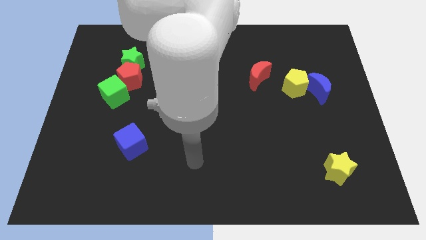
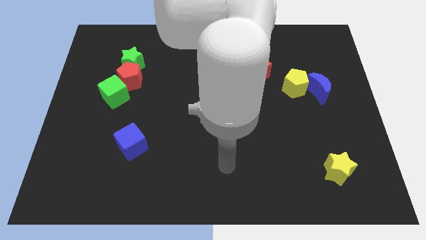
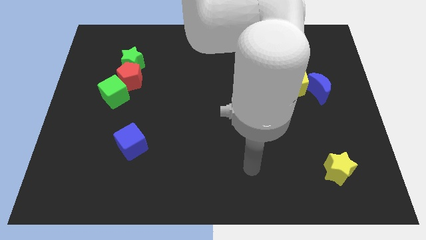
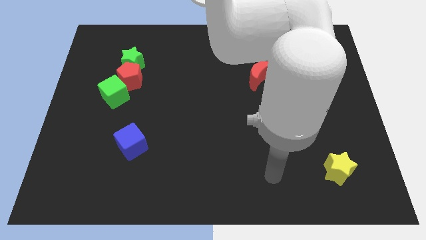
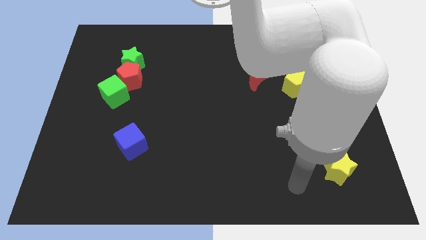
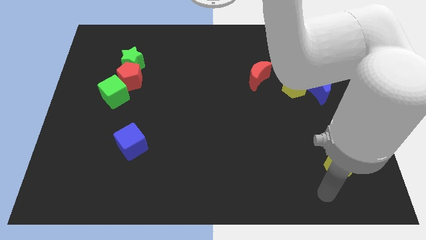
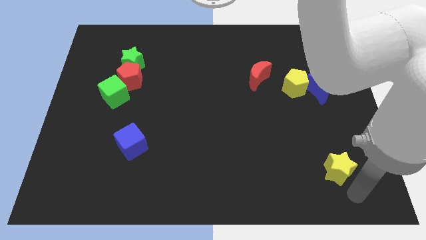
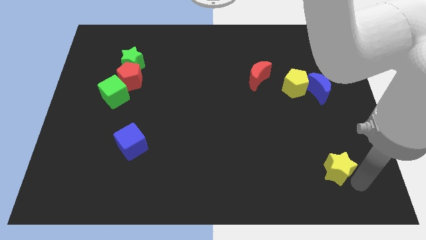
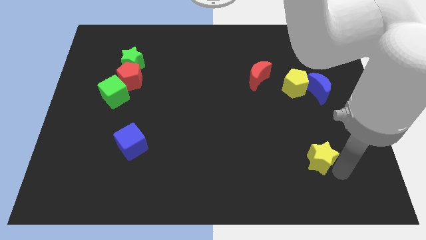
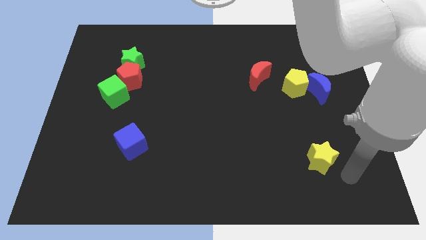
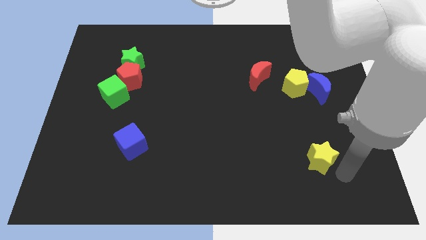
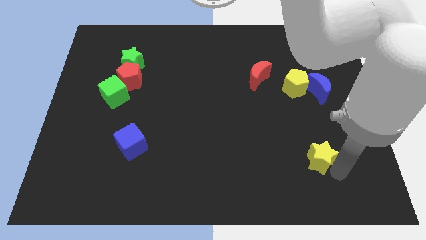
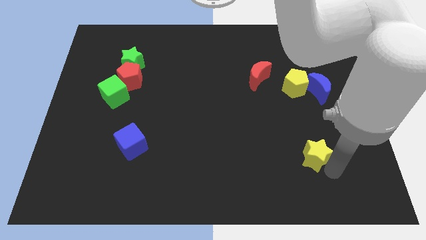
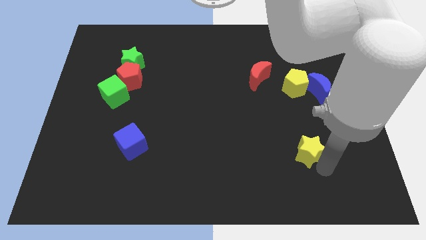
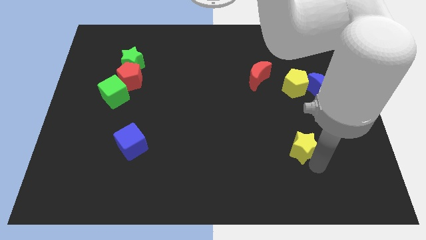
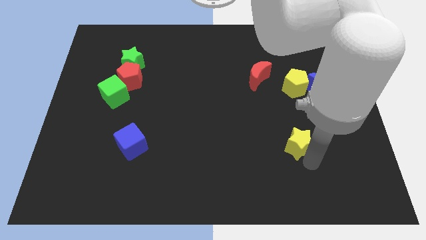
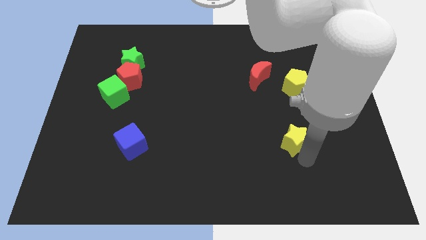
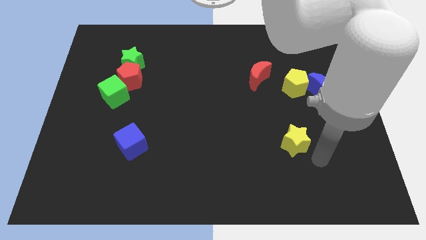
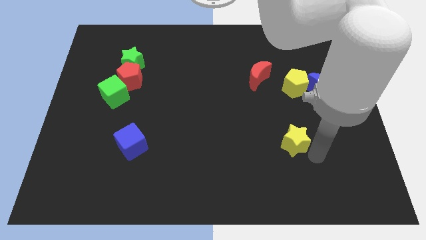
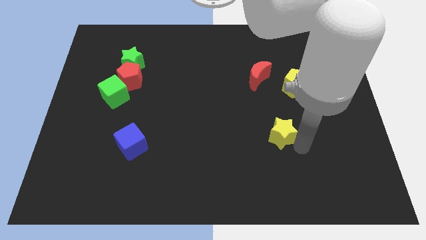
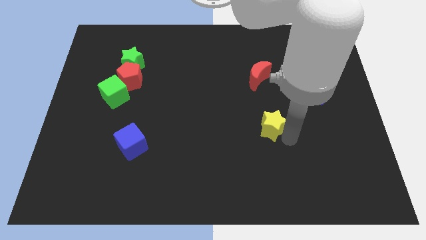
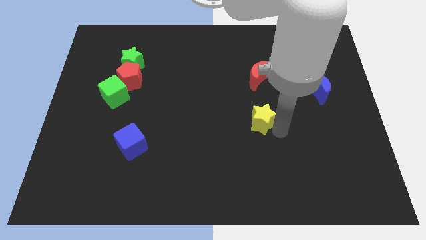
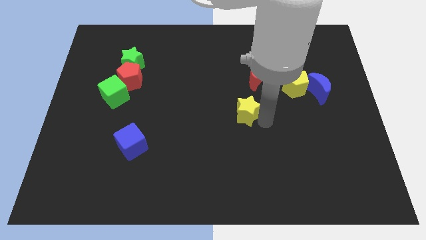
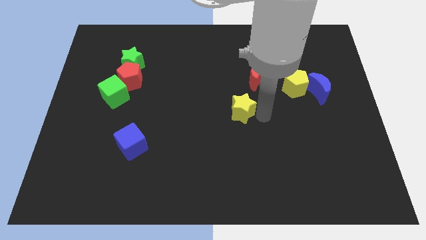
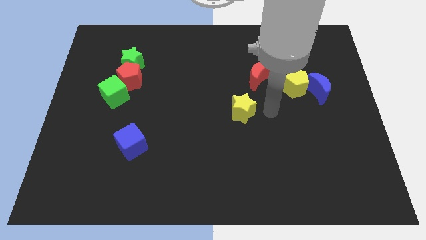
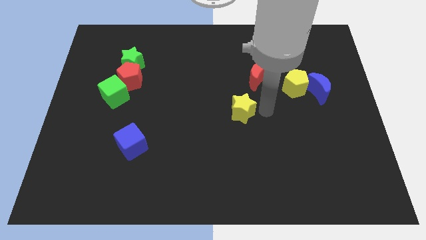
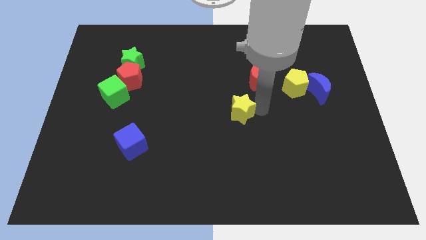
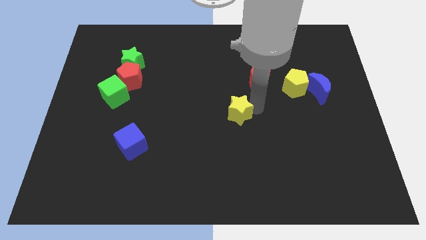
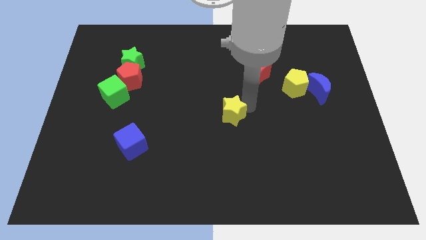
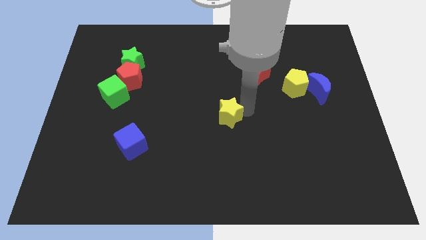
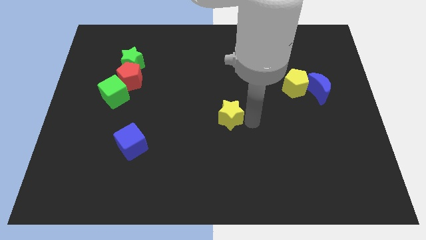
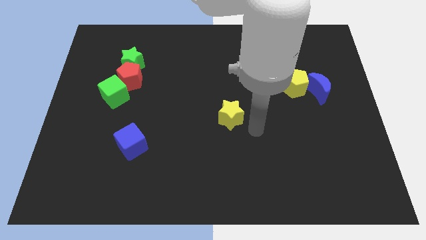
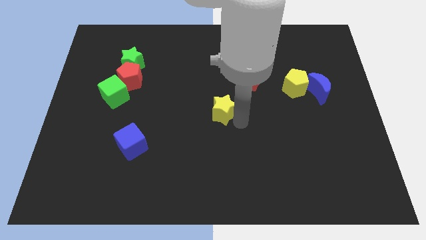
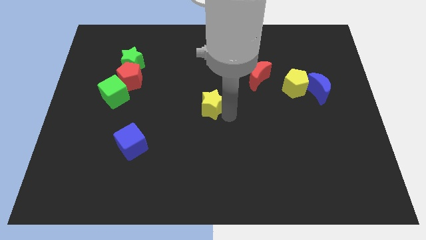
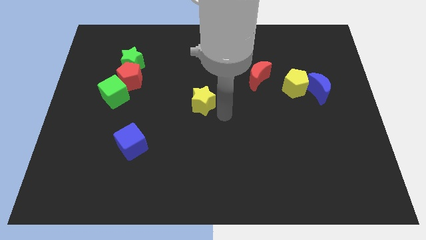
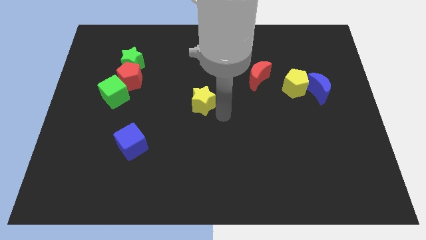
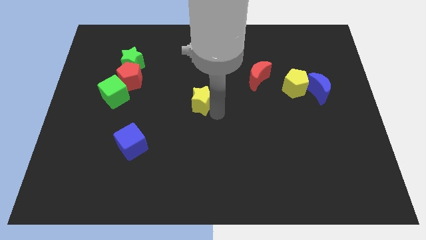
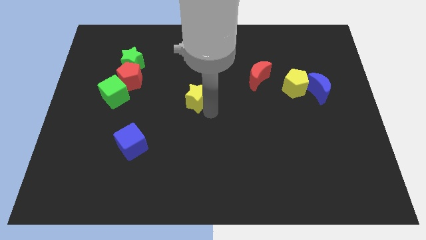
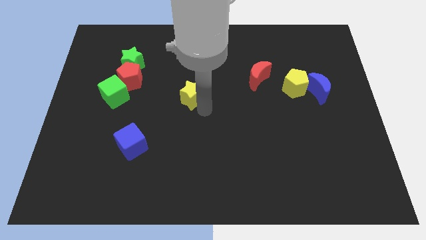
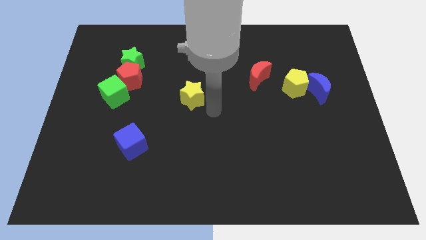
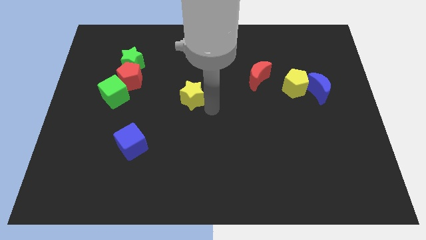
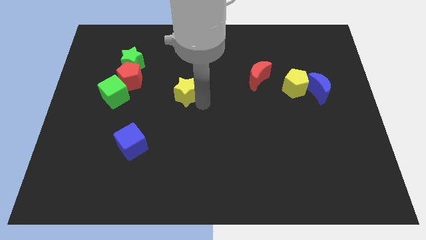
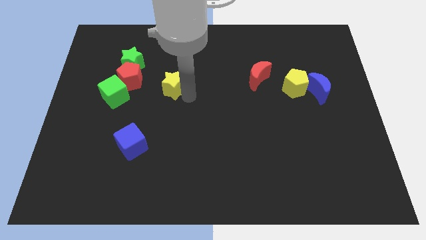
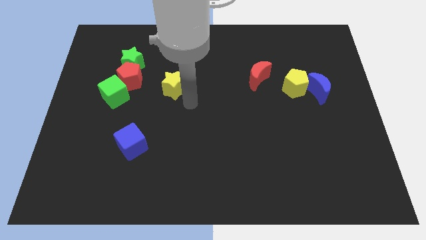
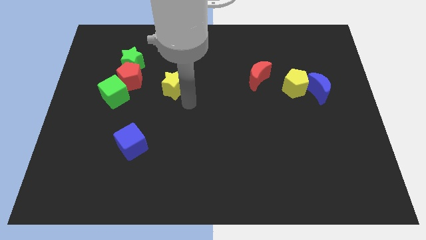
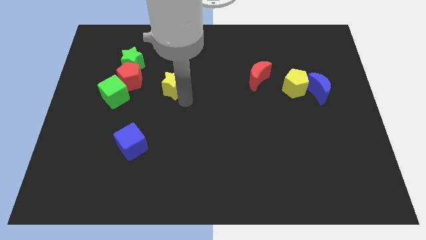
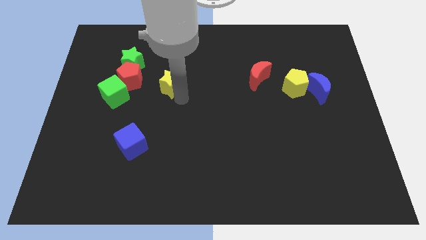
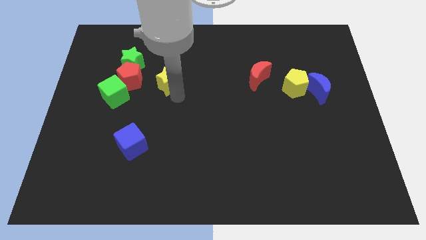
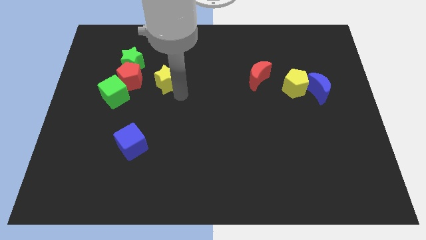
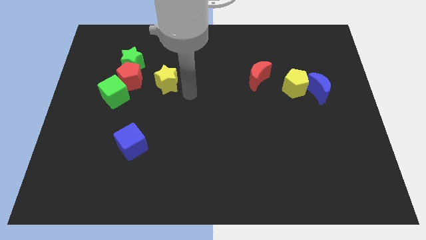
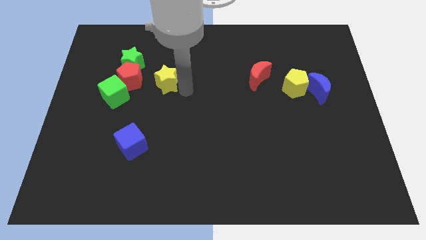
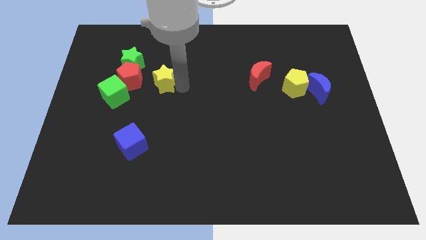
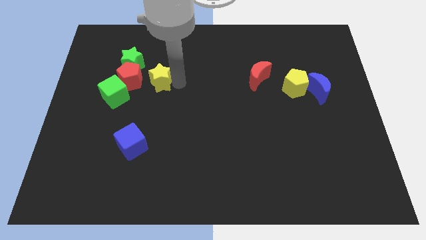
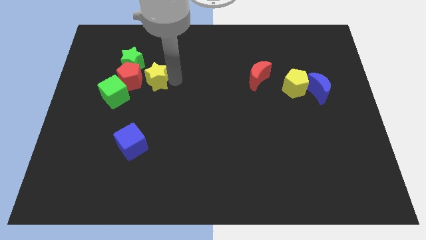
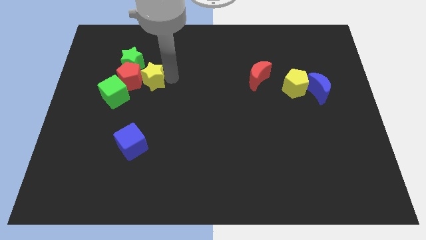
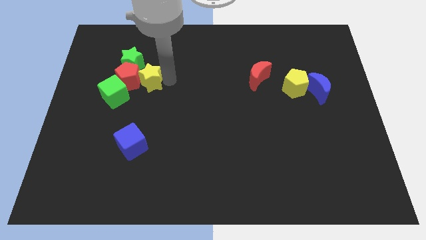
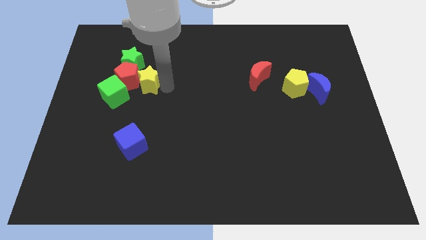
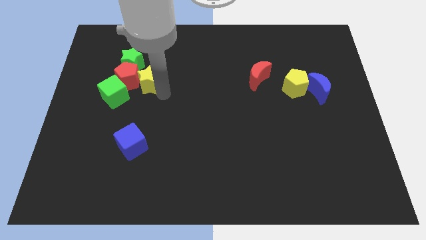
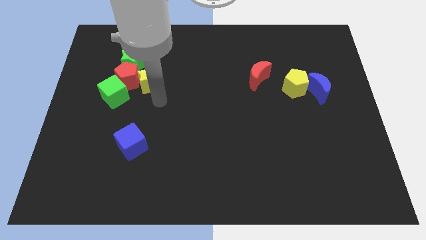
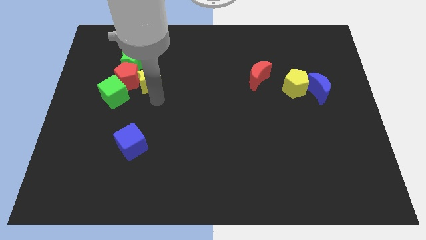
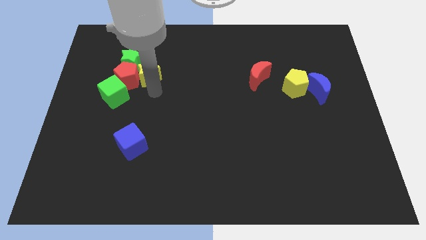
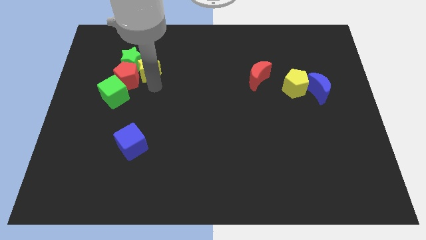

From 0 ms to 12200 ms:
move the yellow star towards the green star

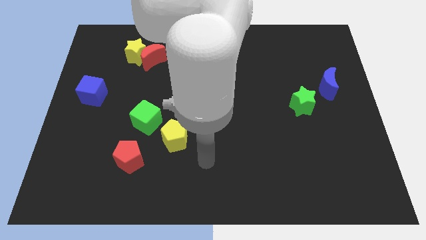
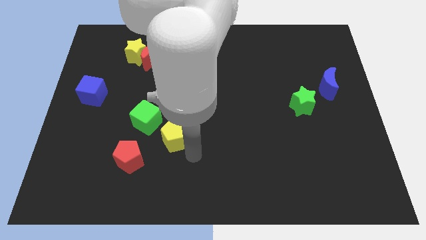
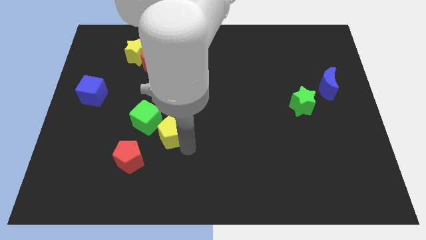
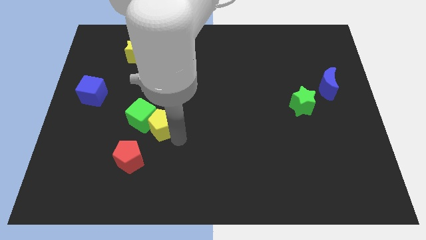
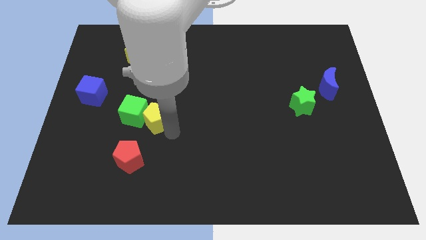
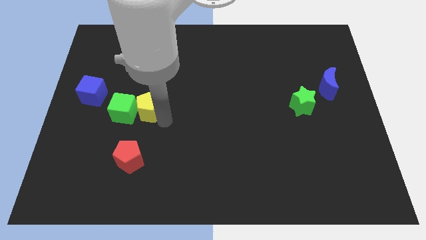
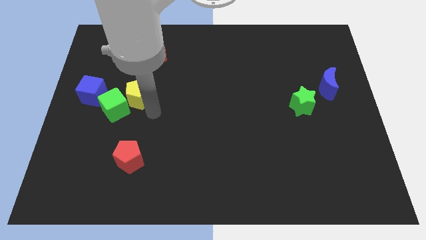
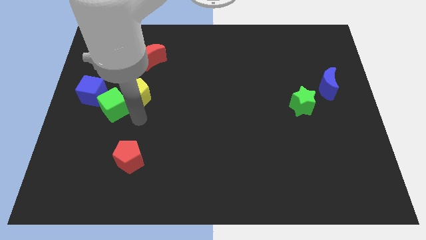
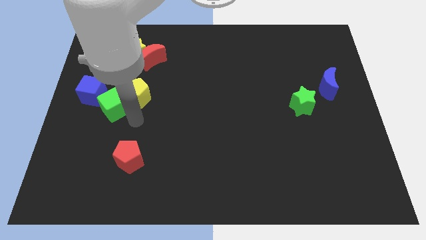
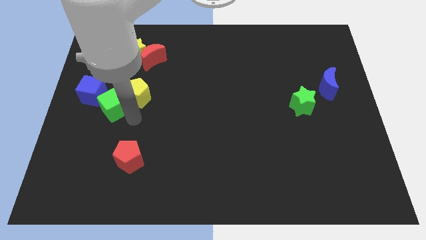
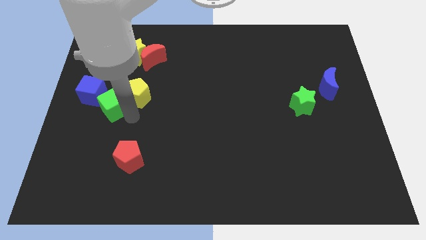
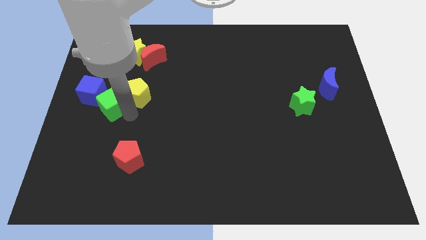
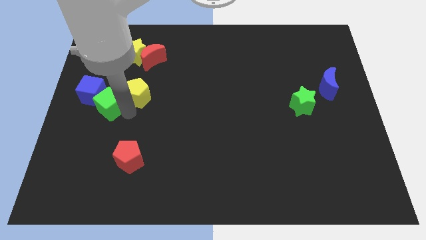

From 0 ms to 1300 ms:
put the green cube close to the blue cube
